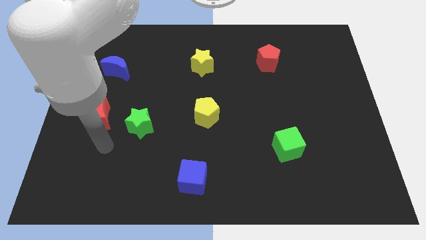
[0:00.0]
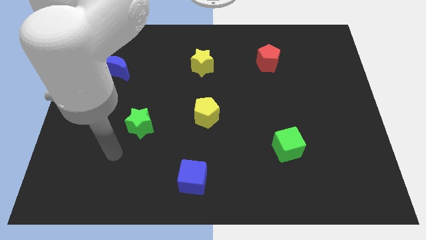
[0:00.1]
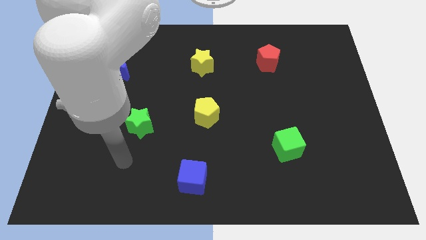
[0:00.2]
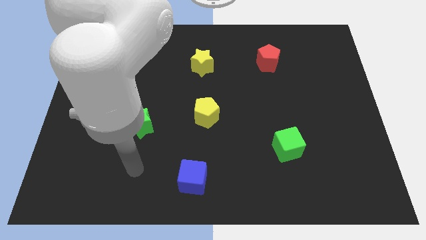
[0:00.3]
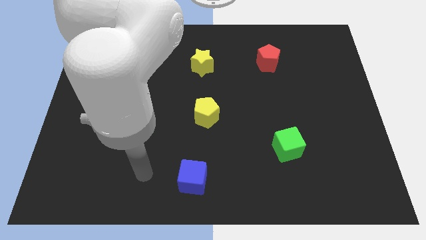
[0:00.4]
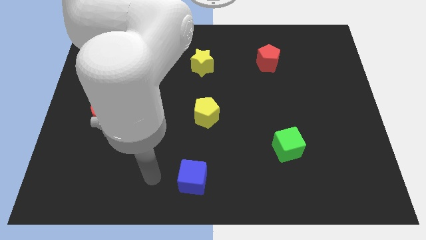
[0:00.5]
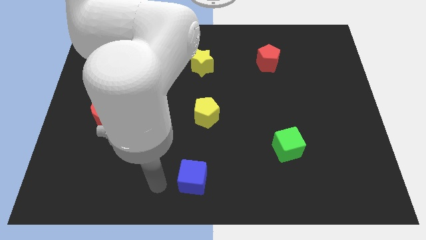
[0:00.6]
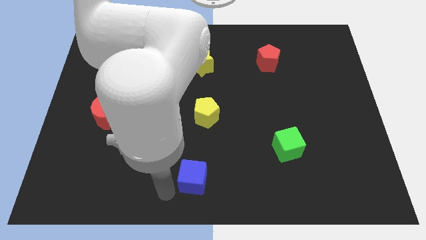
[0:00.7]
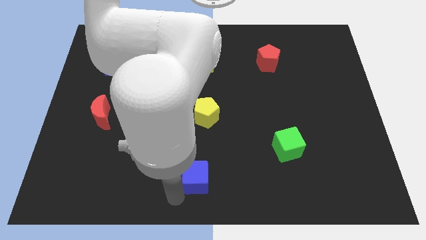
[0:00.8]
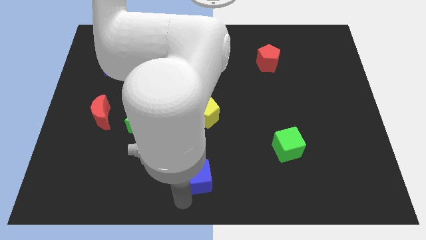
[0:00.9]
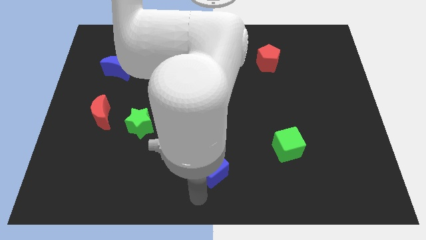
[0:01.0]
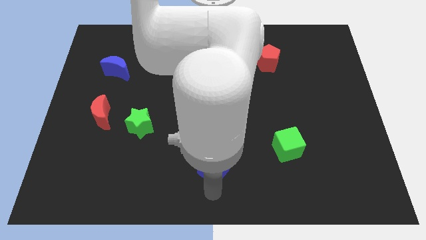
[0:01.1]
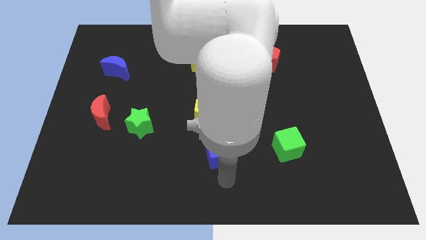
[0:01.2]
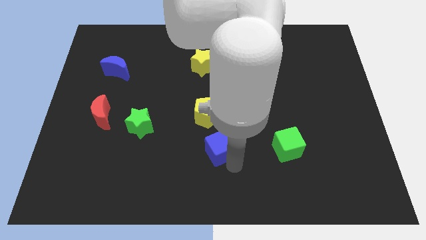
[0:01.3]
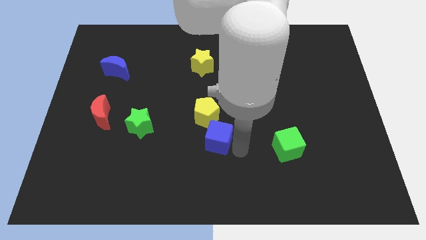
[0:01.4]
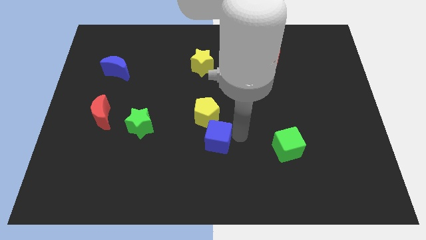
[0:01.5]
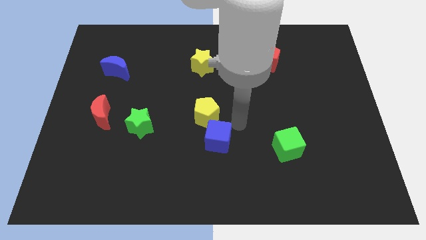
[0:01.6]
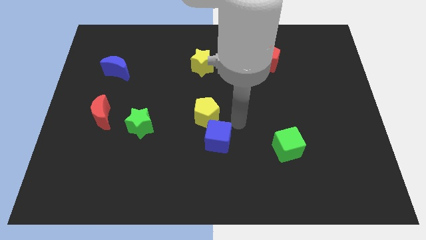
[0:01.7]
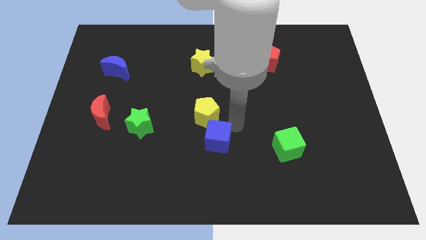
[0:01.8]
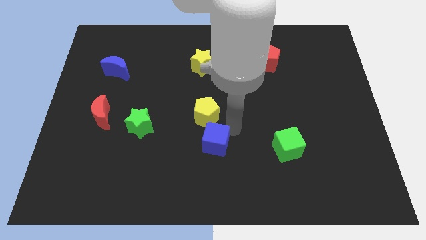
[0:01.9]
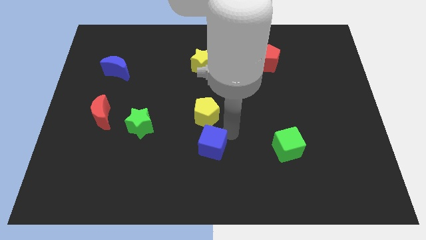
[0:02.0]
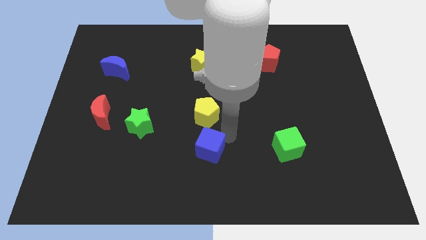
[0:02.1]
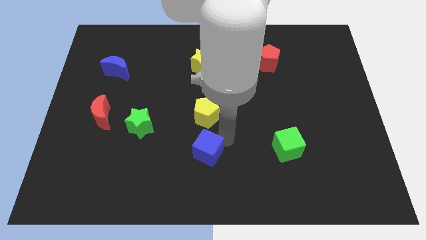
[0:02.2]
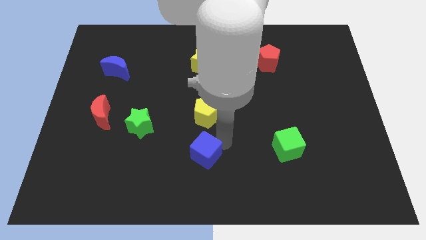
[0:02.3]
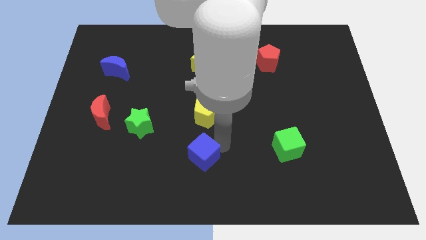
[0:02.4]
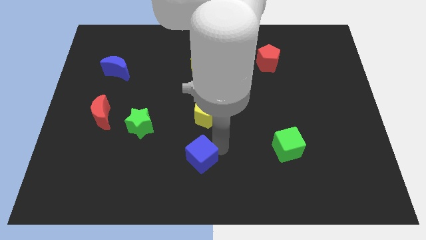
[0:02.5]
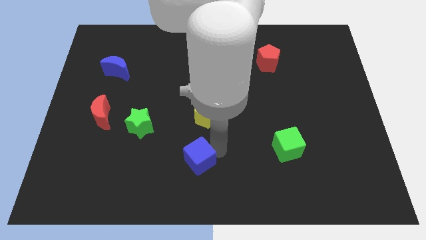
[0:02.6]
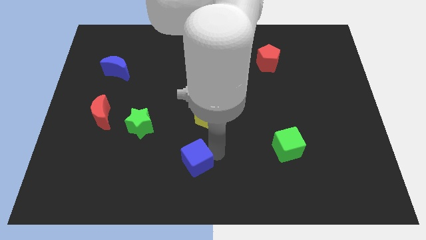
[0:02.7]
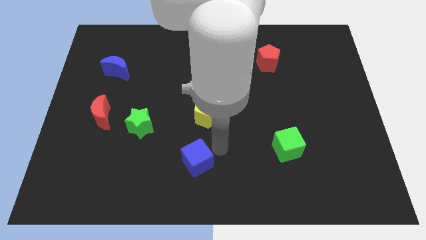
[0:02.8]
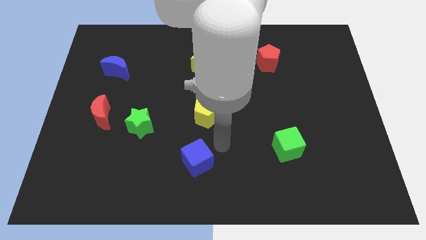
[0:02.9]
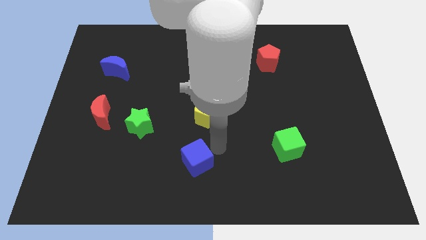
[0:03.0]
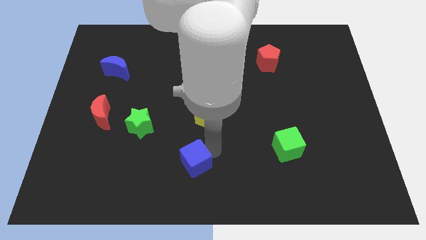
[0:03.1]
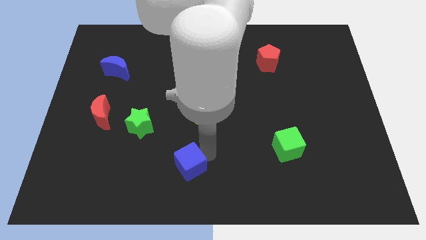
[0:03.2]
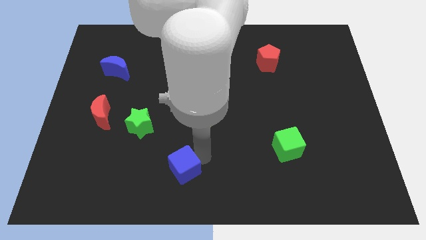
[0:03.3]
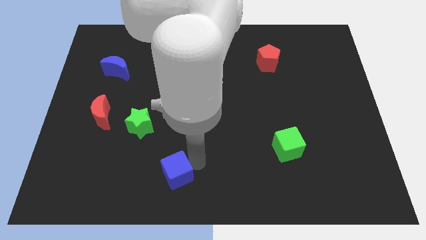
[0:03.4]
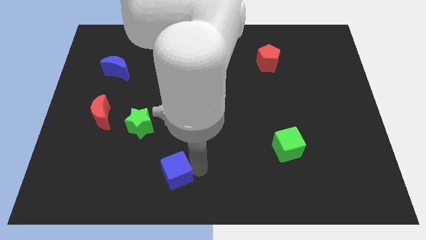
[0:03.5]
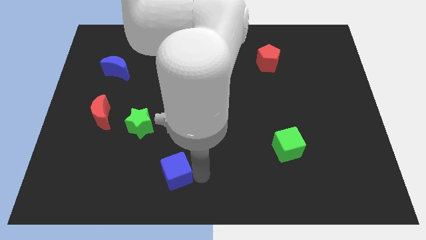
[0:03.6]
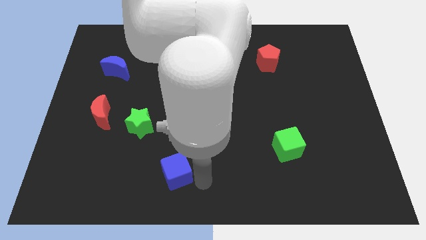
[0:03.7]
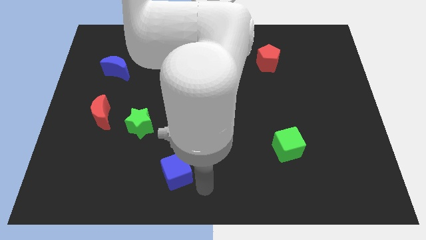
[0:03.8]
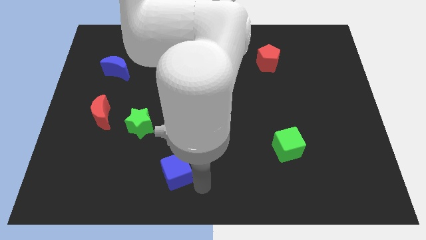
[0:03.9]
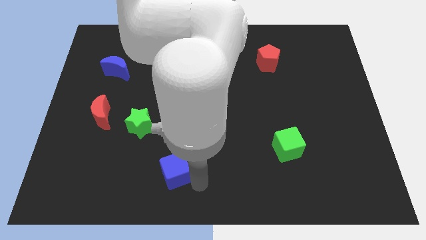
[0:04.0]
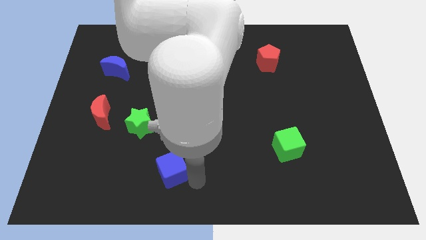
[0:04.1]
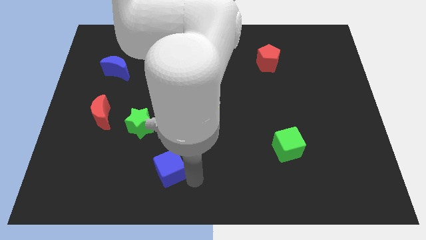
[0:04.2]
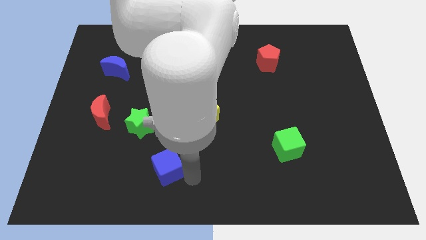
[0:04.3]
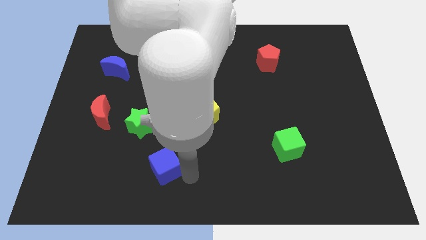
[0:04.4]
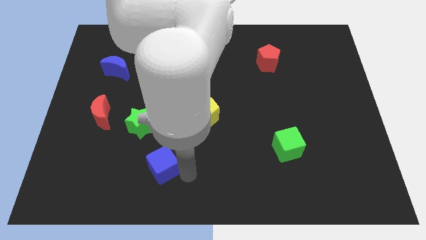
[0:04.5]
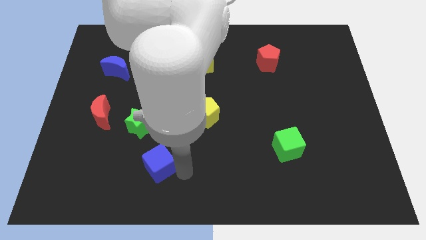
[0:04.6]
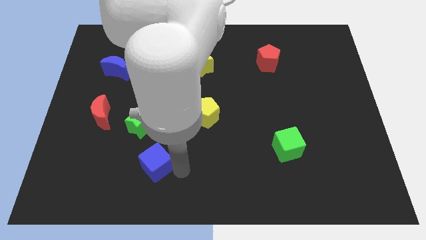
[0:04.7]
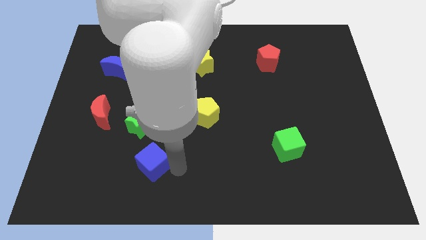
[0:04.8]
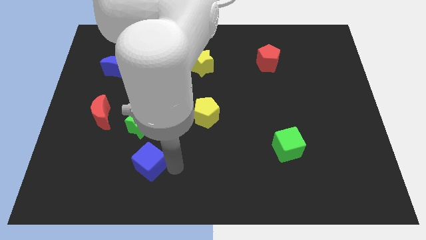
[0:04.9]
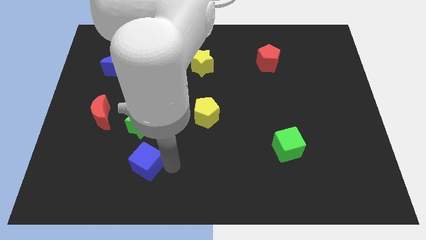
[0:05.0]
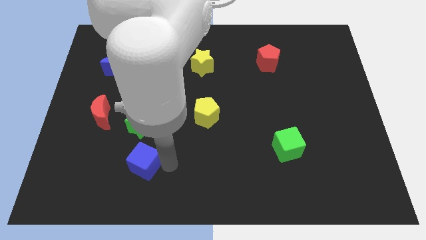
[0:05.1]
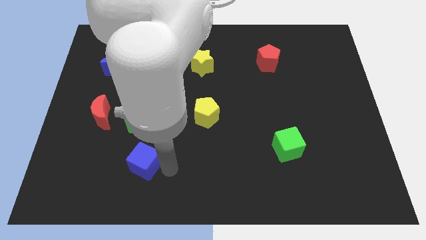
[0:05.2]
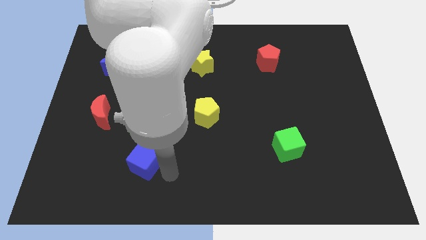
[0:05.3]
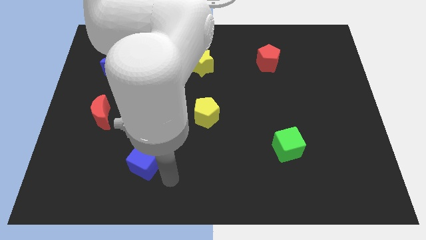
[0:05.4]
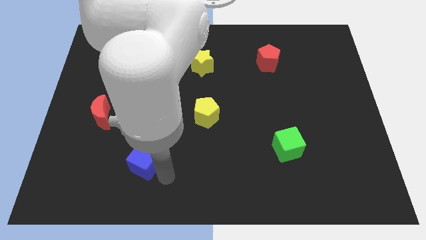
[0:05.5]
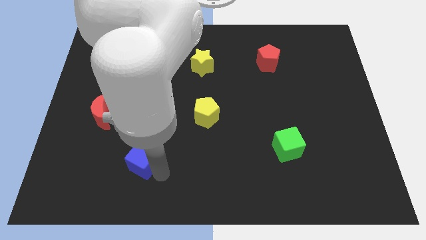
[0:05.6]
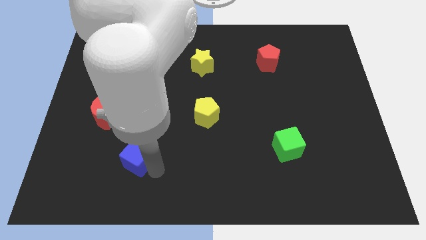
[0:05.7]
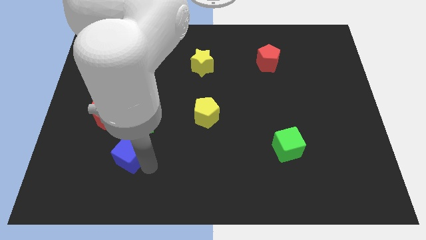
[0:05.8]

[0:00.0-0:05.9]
push the blue cube to the bottom left of the green star

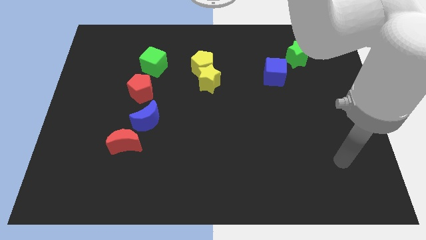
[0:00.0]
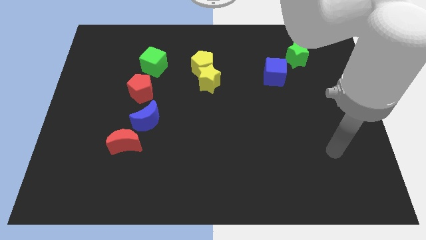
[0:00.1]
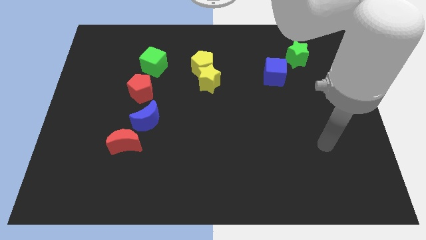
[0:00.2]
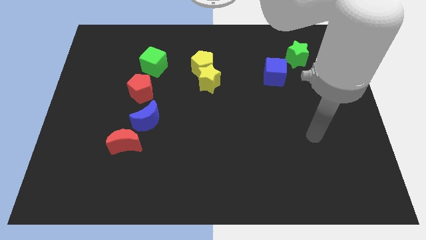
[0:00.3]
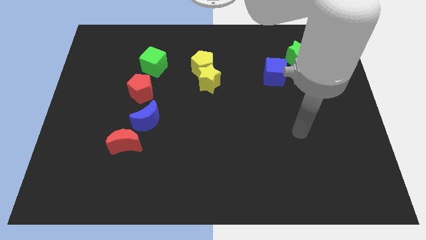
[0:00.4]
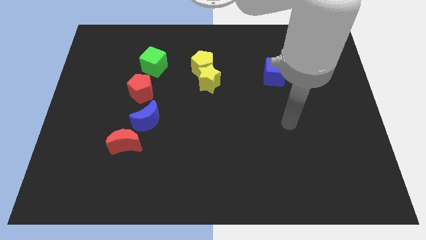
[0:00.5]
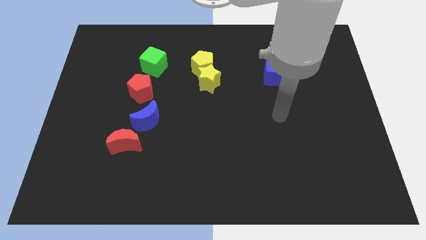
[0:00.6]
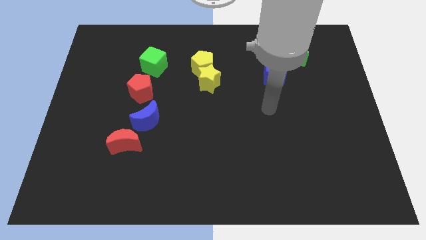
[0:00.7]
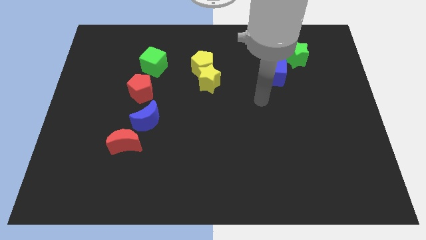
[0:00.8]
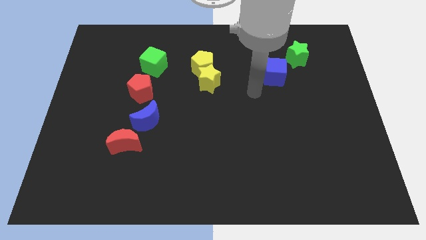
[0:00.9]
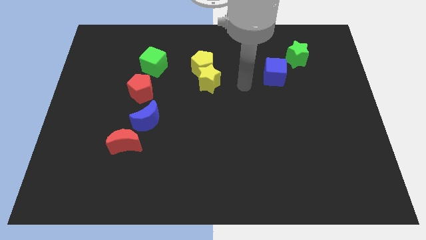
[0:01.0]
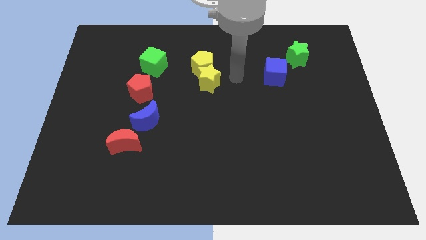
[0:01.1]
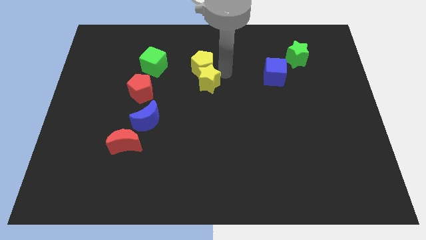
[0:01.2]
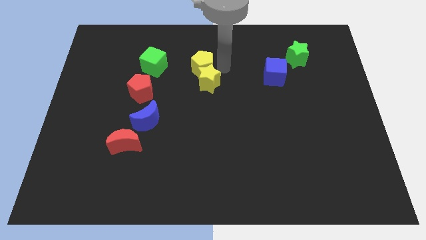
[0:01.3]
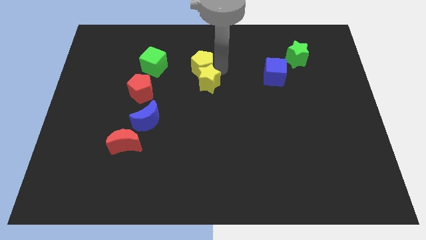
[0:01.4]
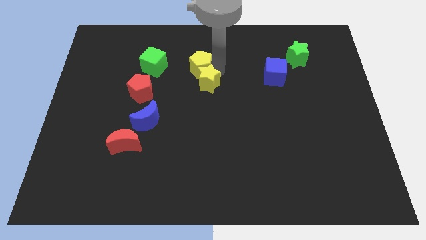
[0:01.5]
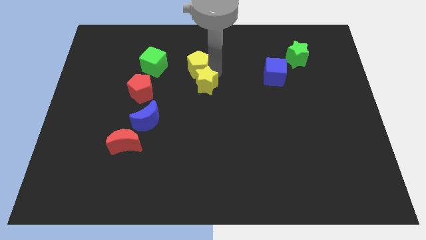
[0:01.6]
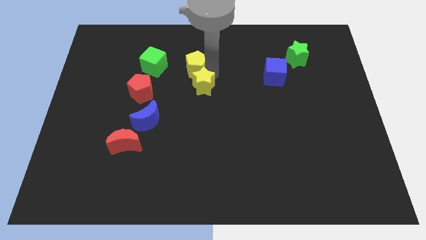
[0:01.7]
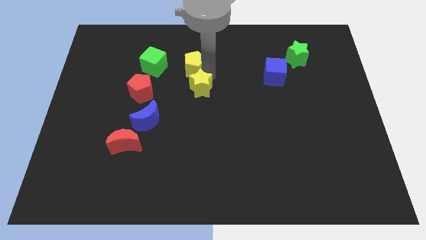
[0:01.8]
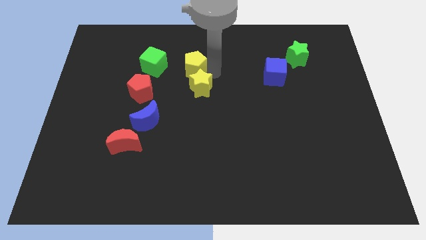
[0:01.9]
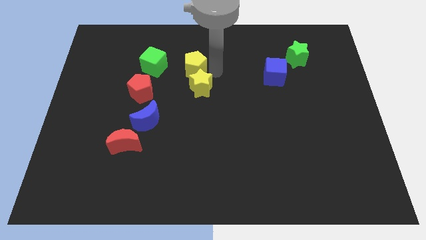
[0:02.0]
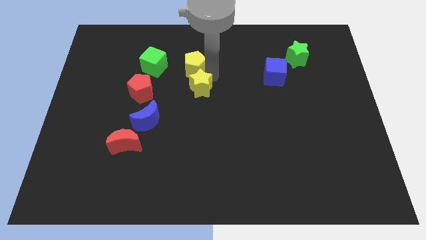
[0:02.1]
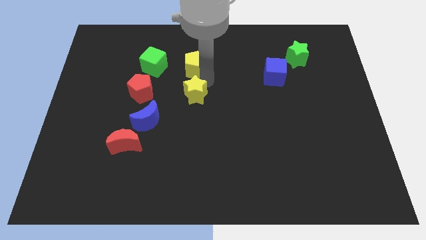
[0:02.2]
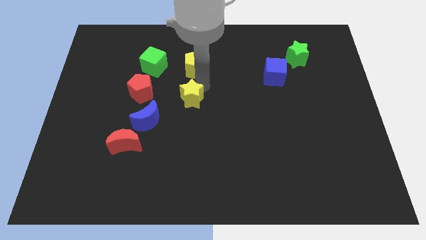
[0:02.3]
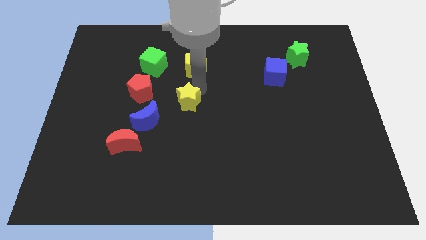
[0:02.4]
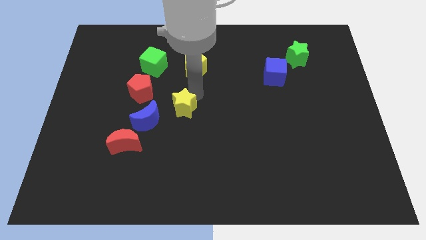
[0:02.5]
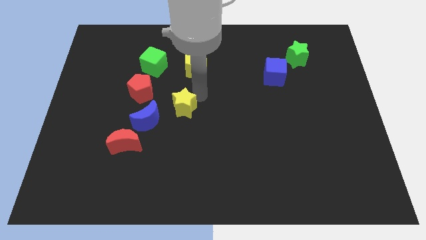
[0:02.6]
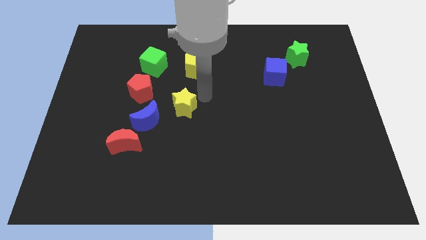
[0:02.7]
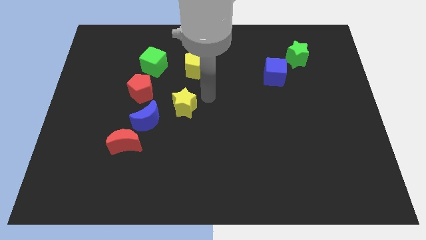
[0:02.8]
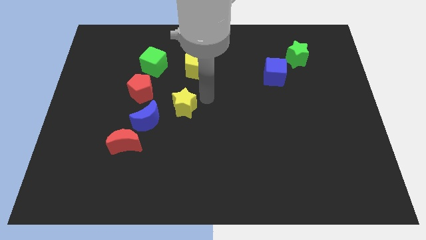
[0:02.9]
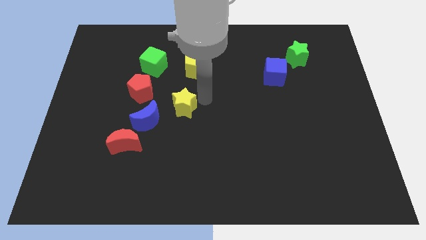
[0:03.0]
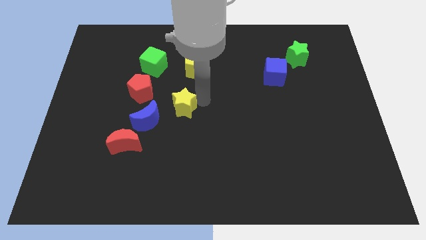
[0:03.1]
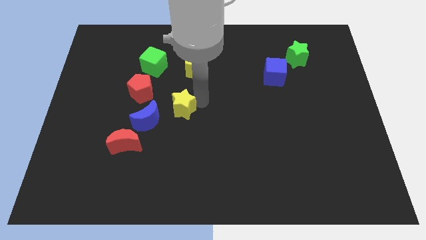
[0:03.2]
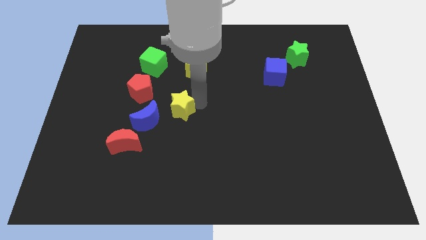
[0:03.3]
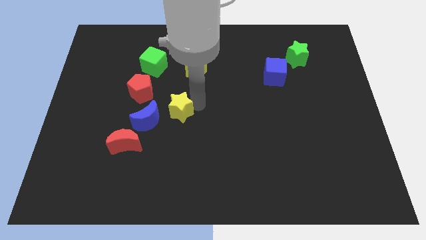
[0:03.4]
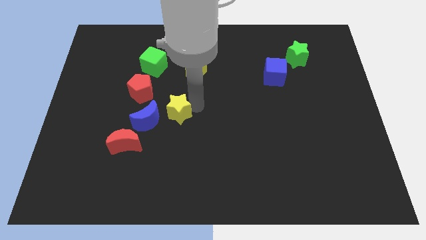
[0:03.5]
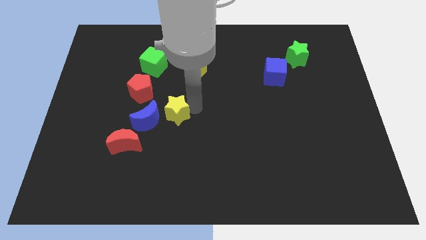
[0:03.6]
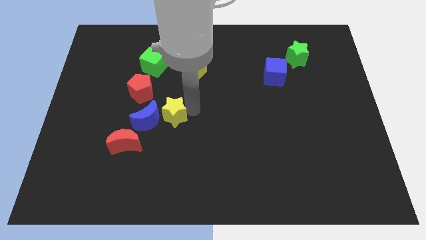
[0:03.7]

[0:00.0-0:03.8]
slide the yellow star to the top right of the red moon
